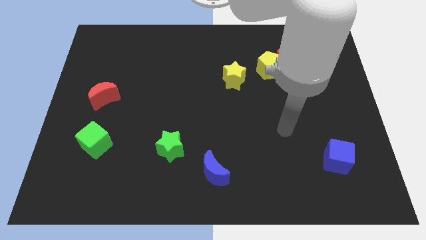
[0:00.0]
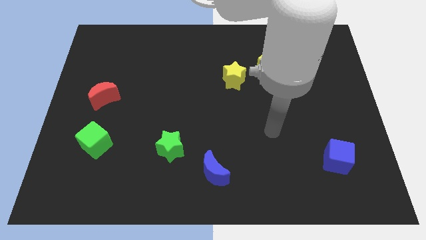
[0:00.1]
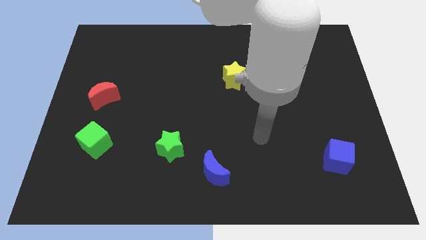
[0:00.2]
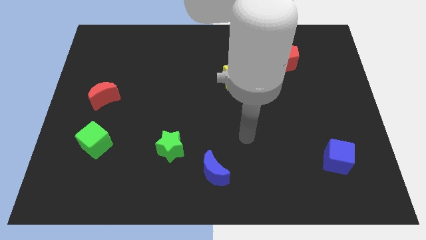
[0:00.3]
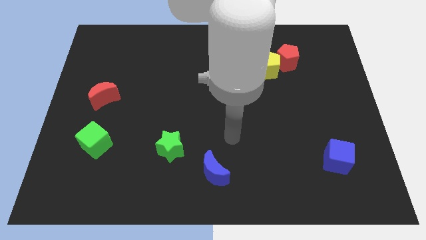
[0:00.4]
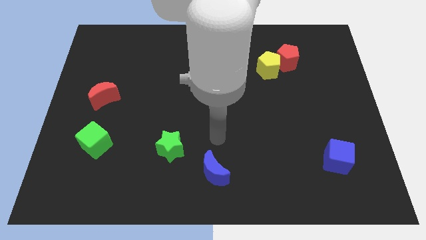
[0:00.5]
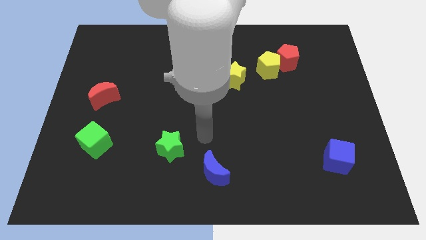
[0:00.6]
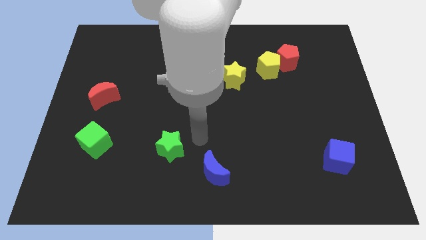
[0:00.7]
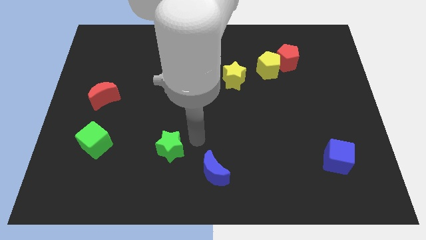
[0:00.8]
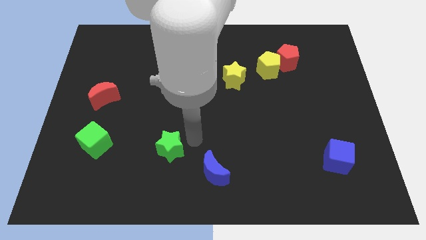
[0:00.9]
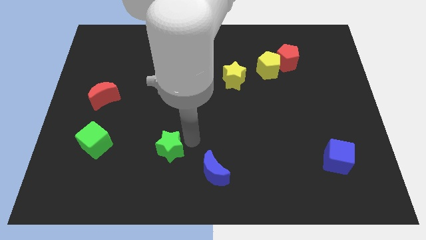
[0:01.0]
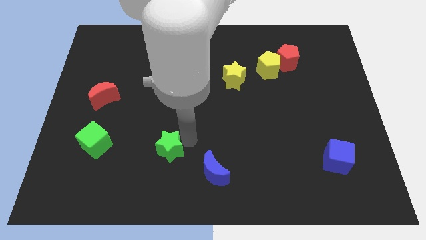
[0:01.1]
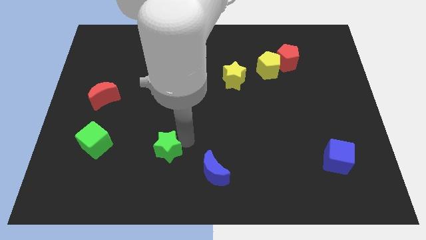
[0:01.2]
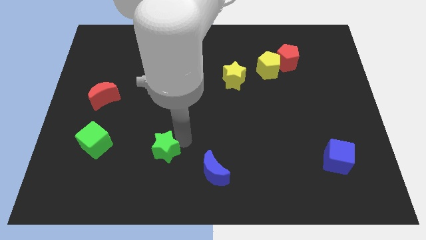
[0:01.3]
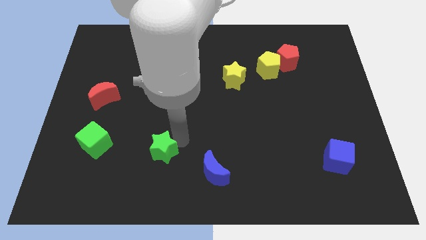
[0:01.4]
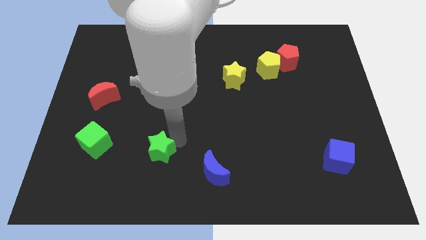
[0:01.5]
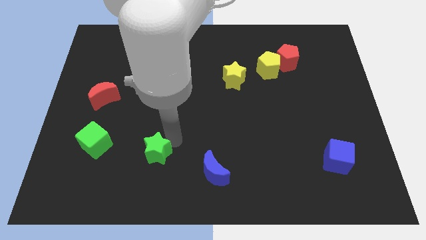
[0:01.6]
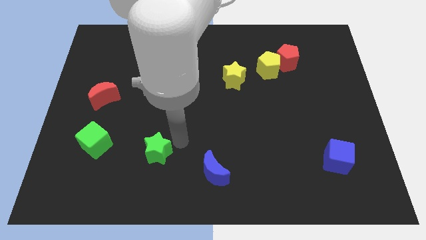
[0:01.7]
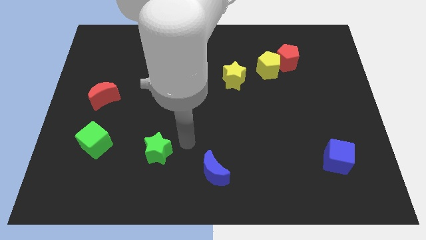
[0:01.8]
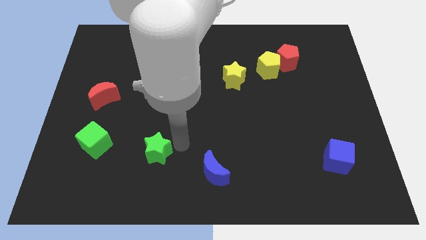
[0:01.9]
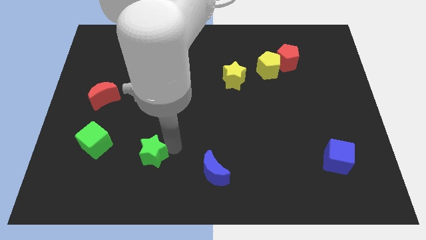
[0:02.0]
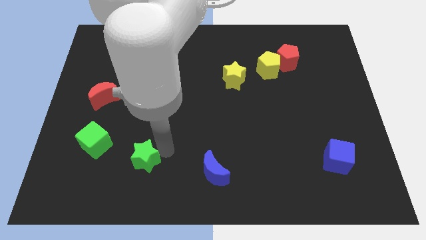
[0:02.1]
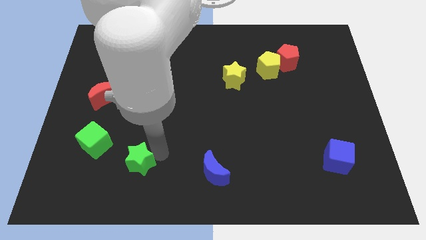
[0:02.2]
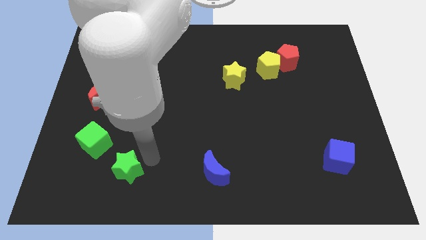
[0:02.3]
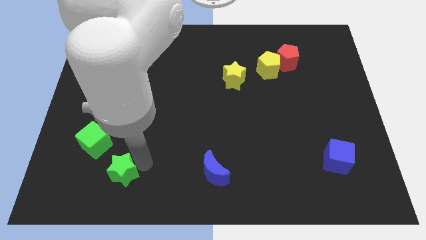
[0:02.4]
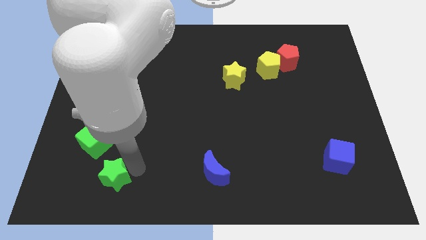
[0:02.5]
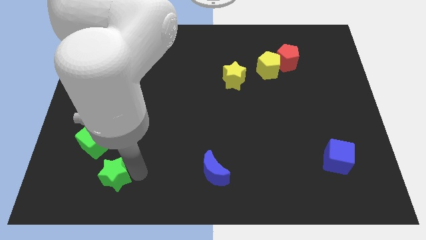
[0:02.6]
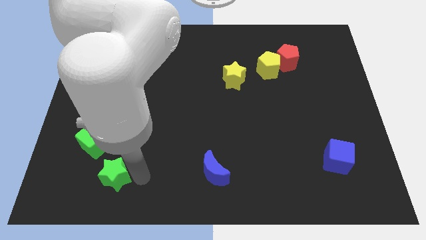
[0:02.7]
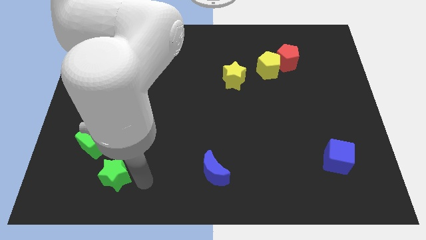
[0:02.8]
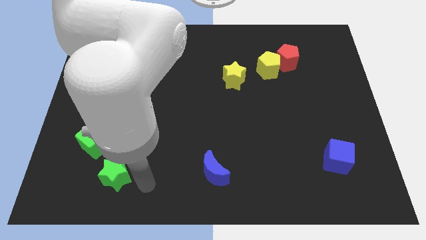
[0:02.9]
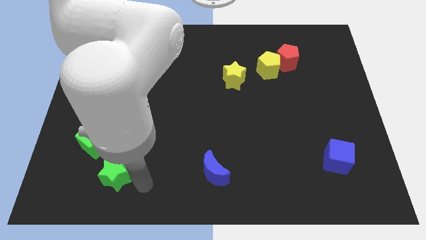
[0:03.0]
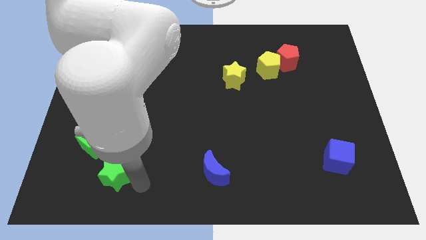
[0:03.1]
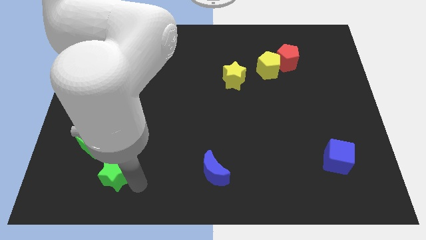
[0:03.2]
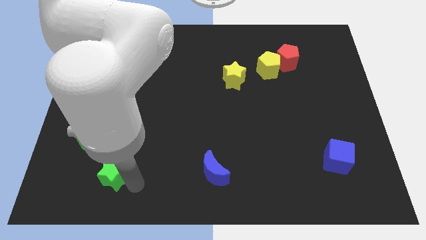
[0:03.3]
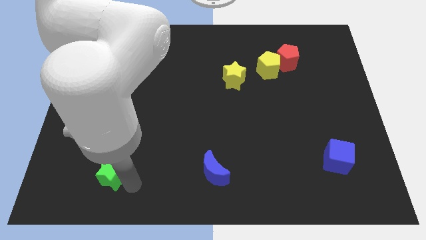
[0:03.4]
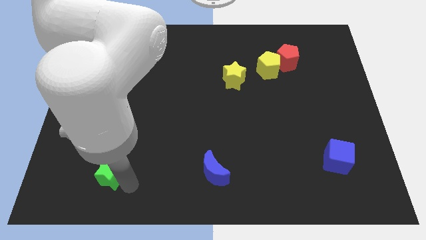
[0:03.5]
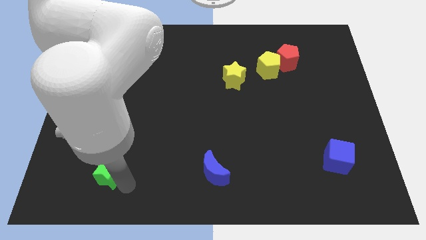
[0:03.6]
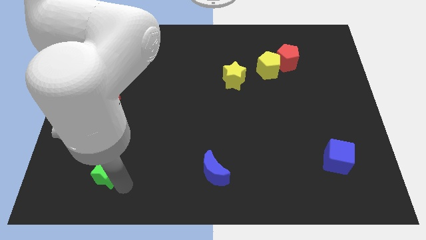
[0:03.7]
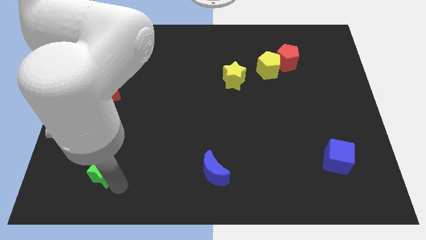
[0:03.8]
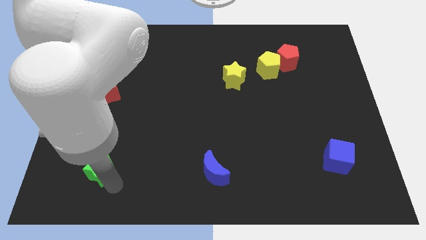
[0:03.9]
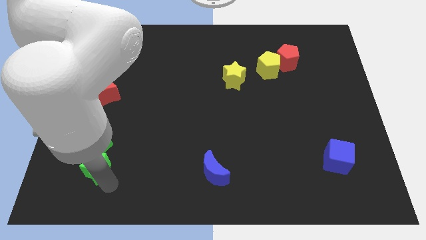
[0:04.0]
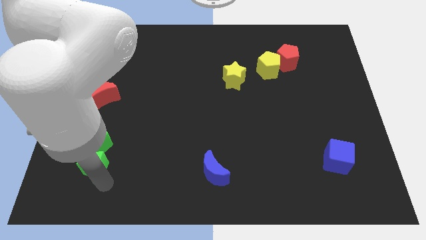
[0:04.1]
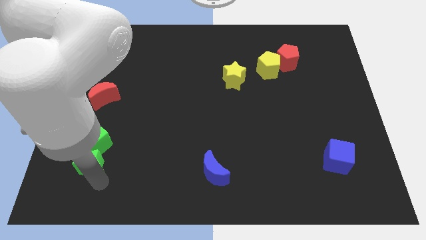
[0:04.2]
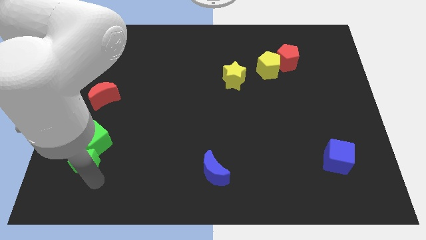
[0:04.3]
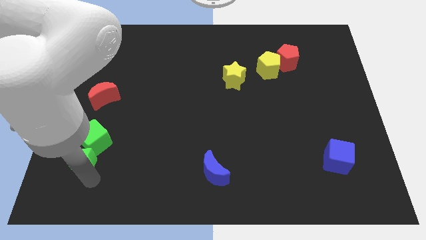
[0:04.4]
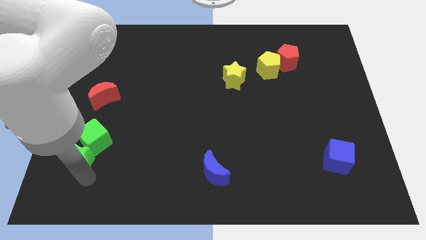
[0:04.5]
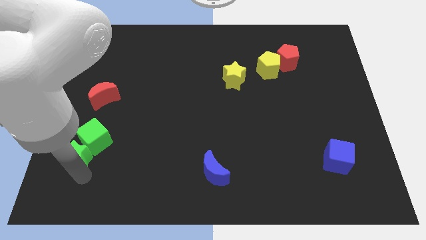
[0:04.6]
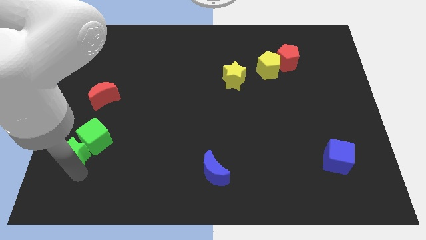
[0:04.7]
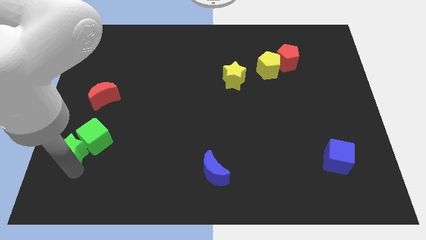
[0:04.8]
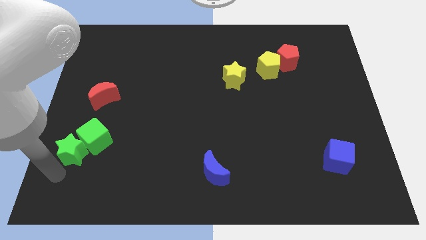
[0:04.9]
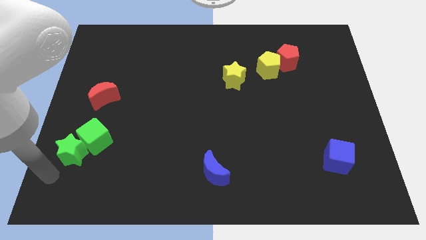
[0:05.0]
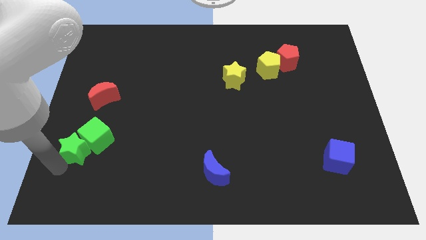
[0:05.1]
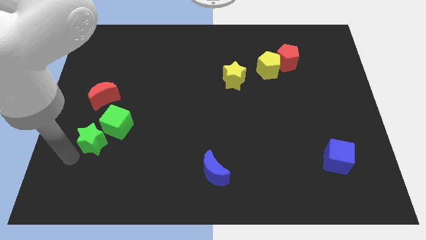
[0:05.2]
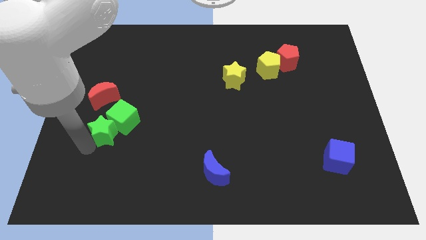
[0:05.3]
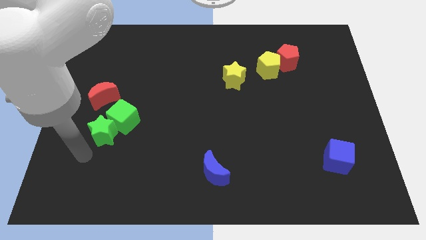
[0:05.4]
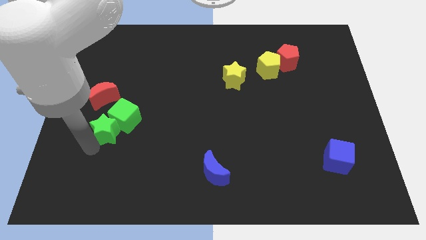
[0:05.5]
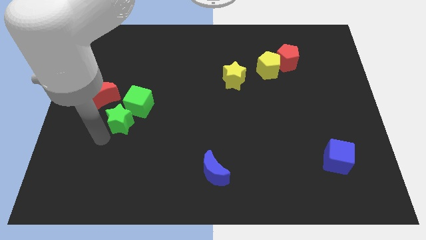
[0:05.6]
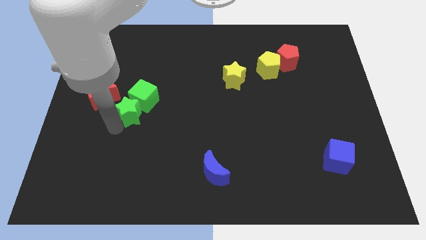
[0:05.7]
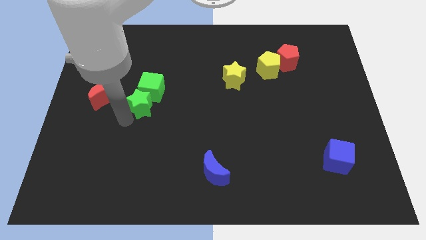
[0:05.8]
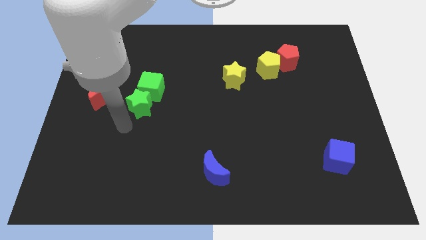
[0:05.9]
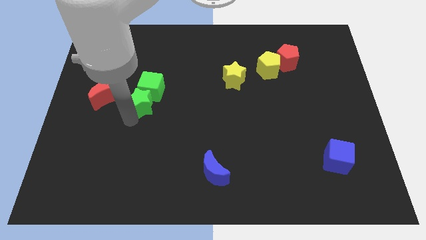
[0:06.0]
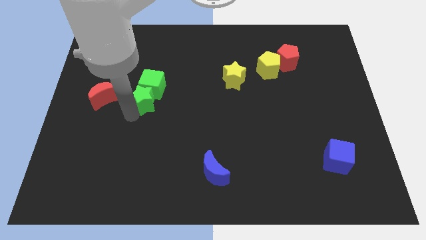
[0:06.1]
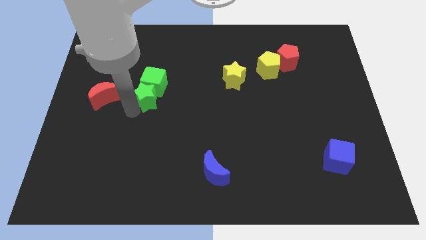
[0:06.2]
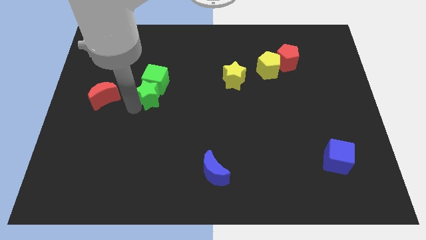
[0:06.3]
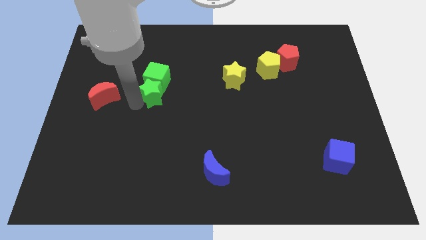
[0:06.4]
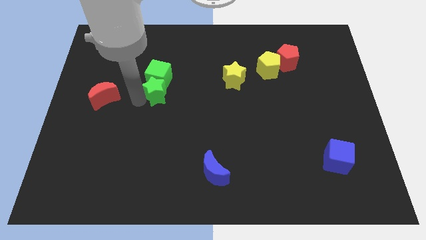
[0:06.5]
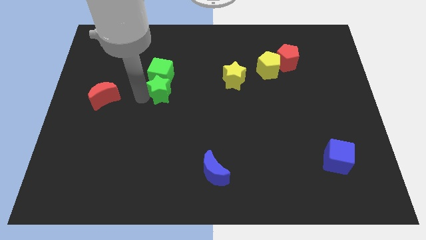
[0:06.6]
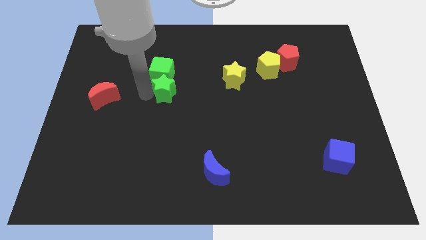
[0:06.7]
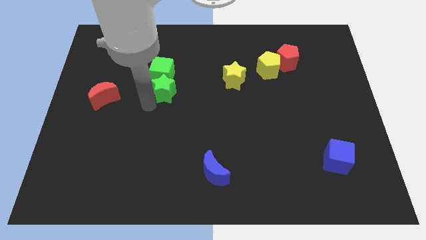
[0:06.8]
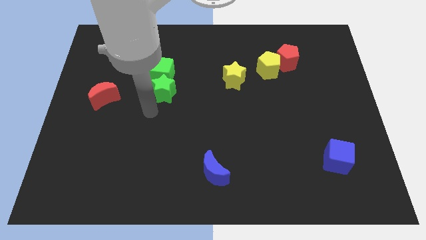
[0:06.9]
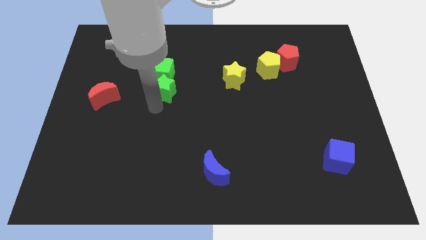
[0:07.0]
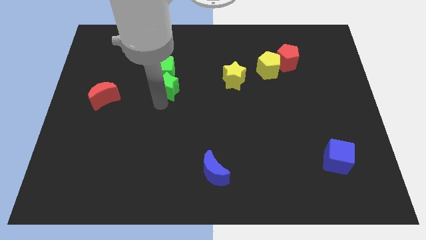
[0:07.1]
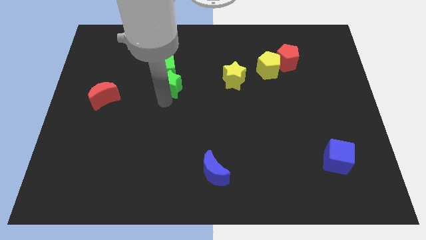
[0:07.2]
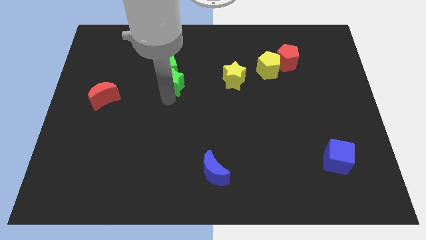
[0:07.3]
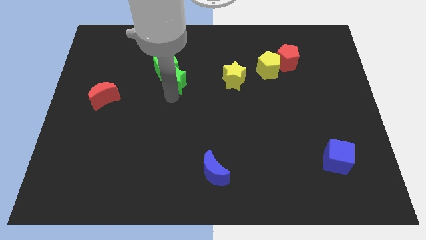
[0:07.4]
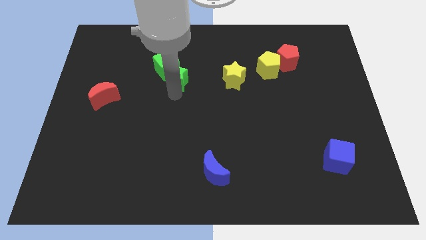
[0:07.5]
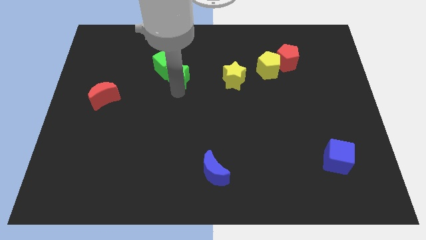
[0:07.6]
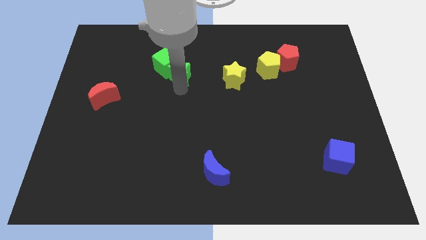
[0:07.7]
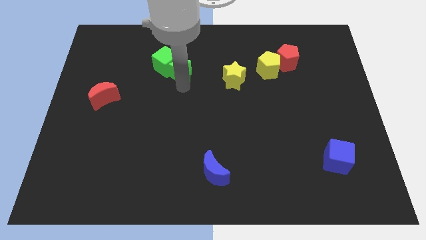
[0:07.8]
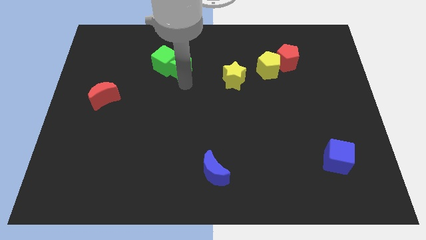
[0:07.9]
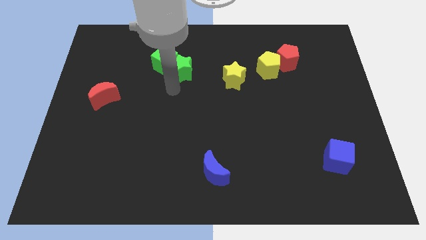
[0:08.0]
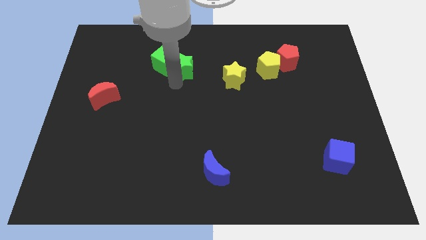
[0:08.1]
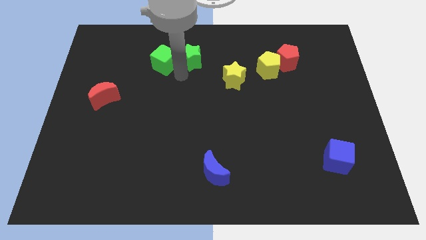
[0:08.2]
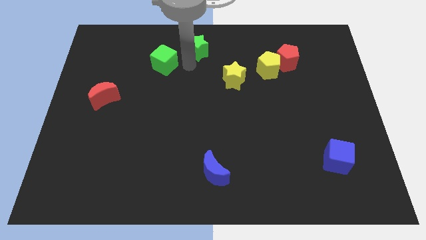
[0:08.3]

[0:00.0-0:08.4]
slide the green star to the towards your base
